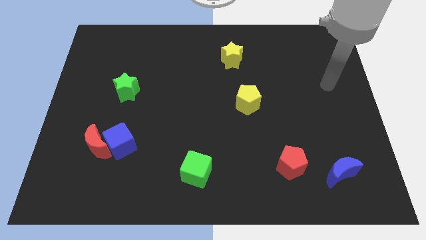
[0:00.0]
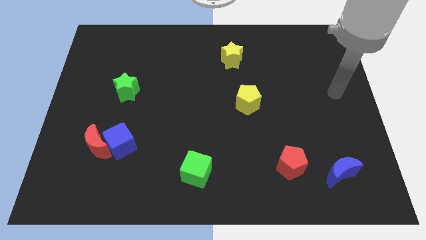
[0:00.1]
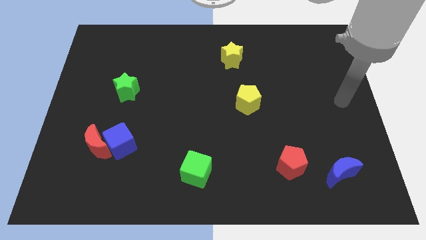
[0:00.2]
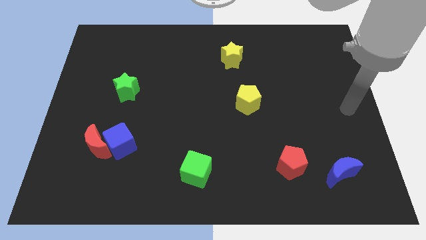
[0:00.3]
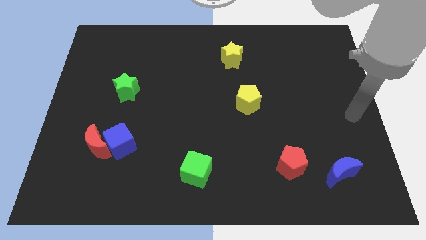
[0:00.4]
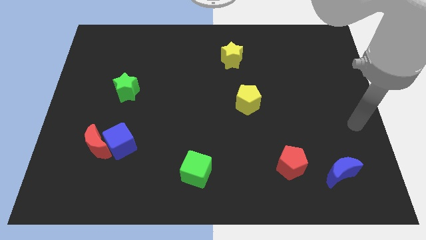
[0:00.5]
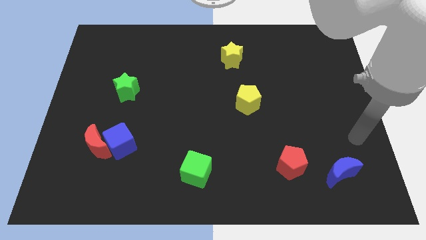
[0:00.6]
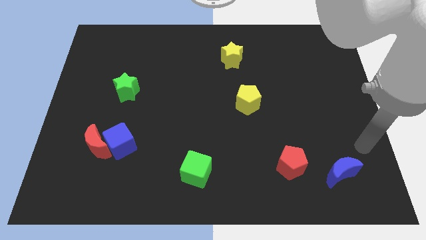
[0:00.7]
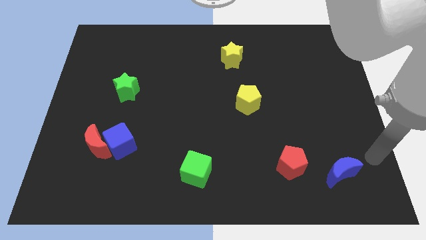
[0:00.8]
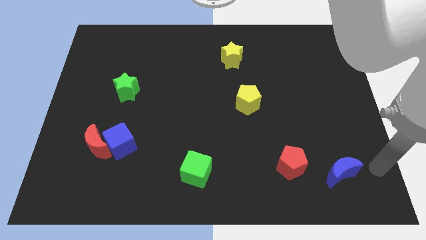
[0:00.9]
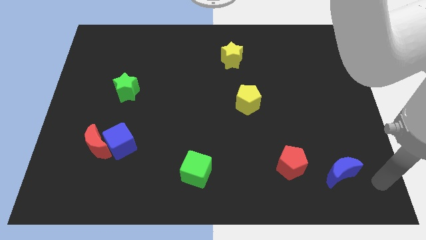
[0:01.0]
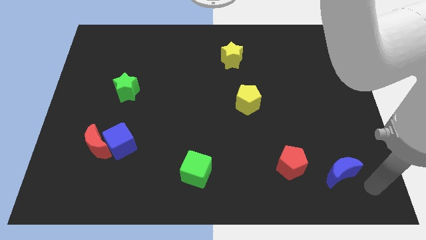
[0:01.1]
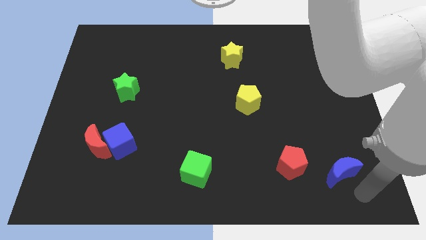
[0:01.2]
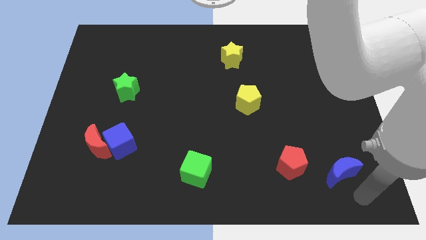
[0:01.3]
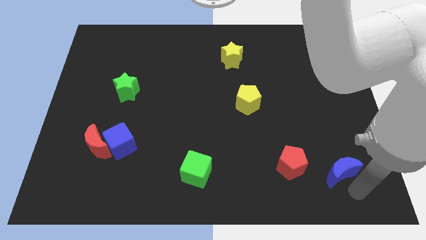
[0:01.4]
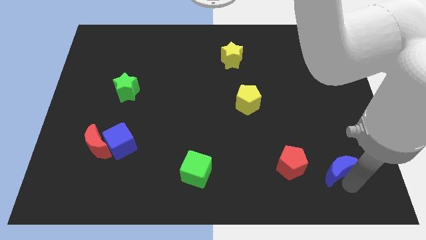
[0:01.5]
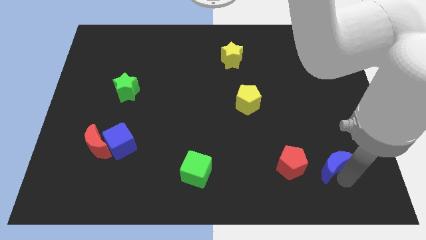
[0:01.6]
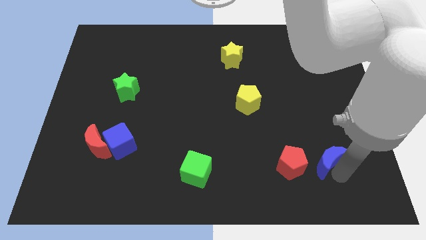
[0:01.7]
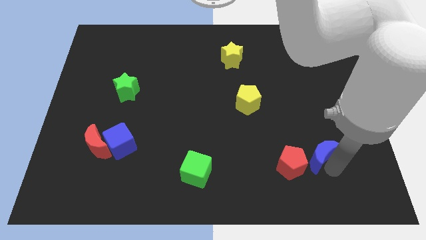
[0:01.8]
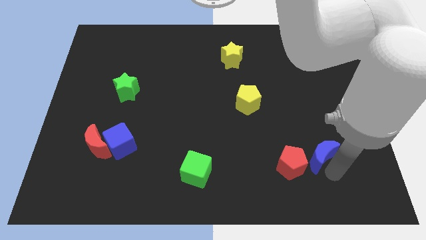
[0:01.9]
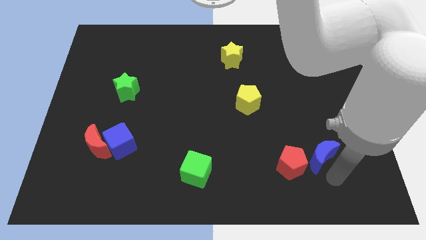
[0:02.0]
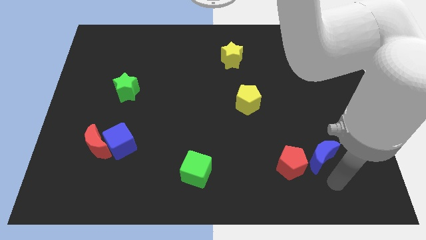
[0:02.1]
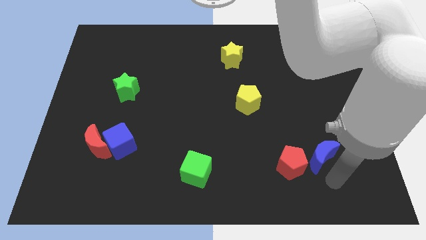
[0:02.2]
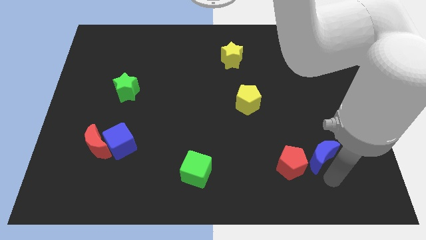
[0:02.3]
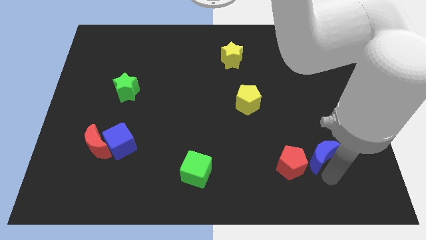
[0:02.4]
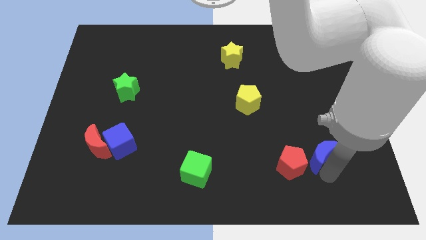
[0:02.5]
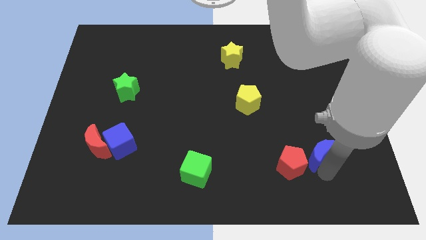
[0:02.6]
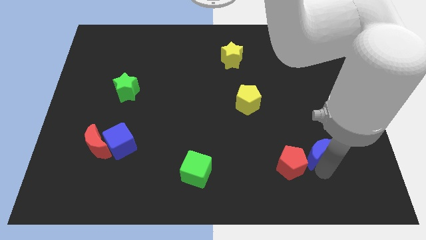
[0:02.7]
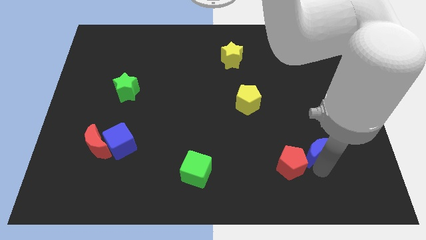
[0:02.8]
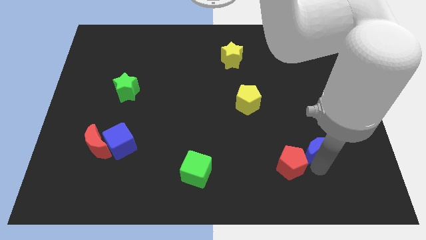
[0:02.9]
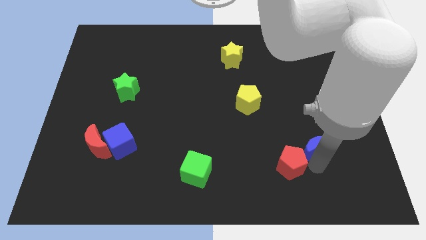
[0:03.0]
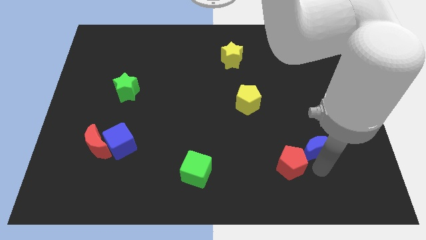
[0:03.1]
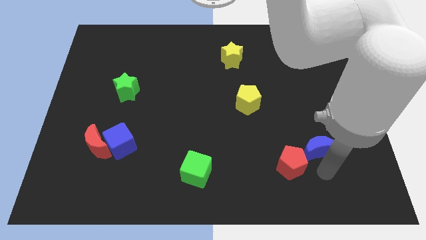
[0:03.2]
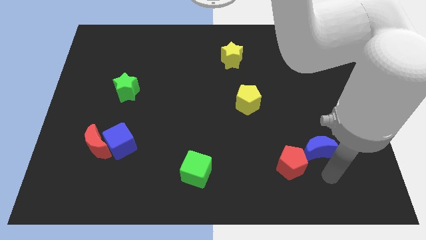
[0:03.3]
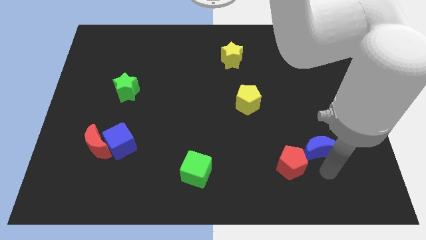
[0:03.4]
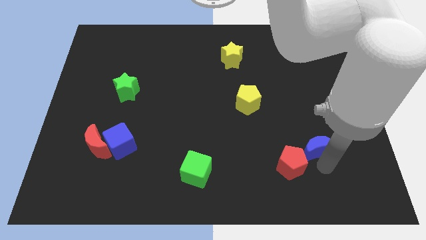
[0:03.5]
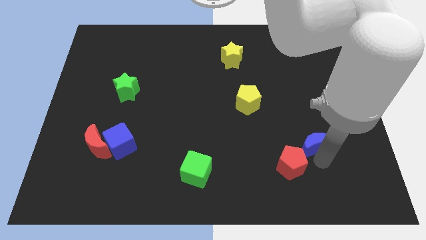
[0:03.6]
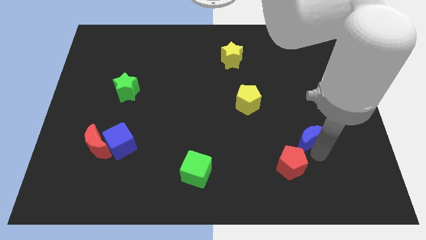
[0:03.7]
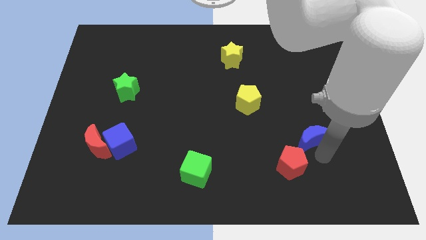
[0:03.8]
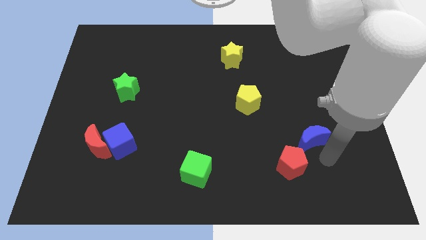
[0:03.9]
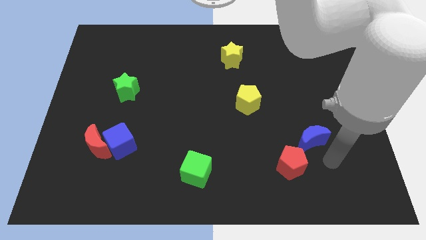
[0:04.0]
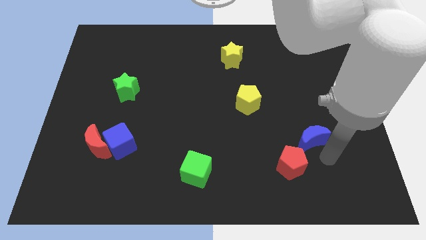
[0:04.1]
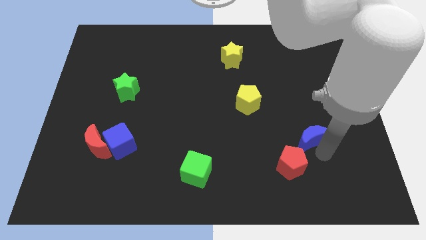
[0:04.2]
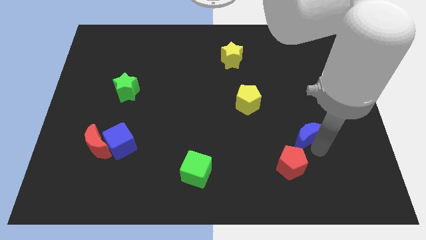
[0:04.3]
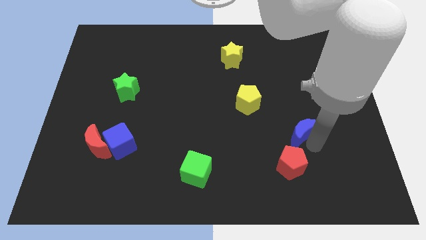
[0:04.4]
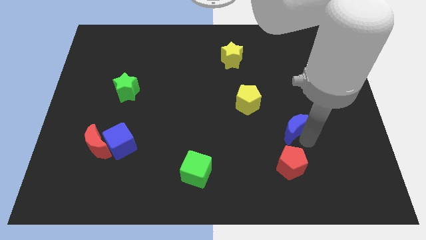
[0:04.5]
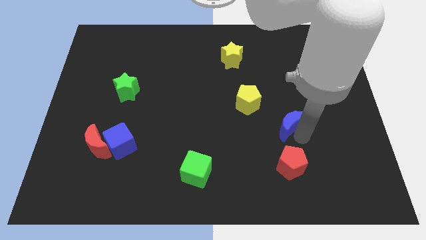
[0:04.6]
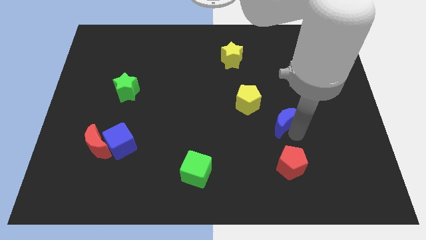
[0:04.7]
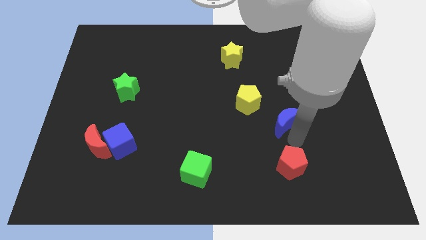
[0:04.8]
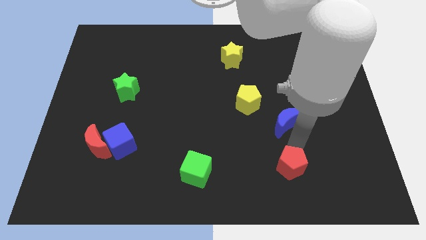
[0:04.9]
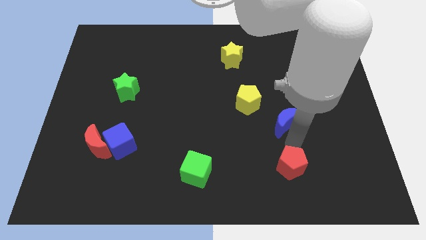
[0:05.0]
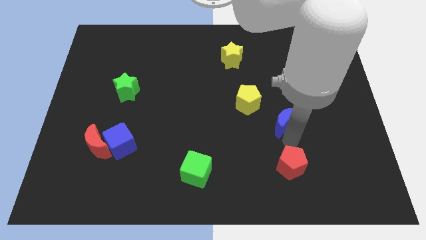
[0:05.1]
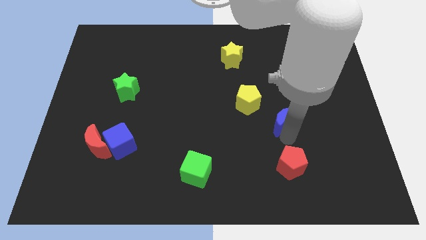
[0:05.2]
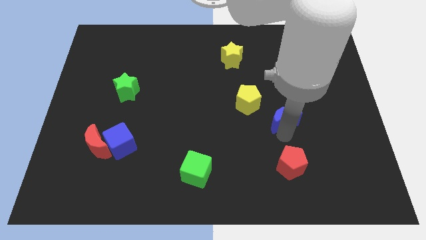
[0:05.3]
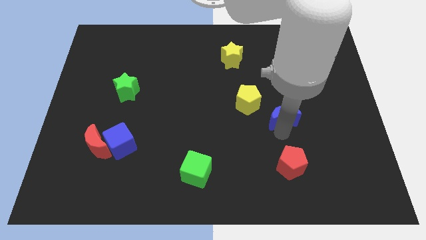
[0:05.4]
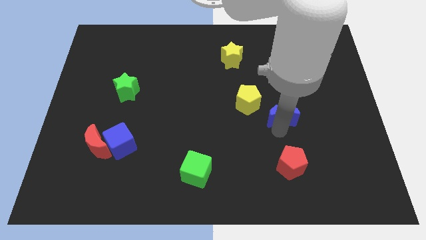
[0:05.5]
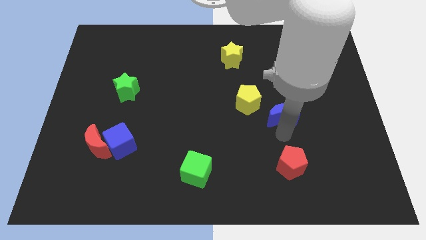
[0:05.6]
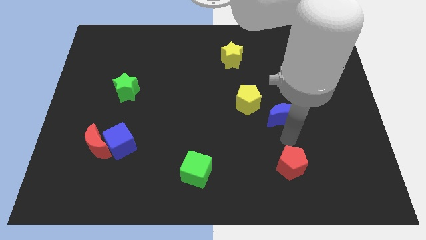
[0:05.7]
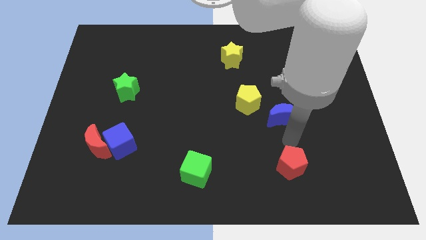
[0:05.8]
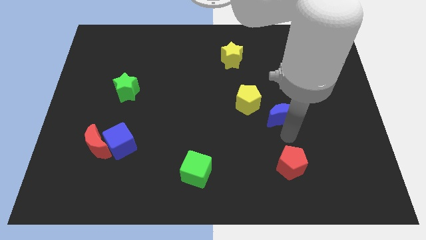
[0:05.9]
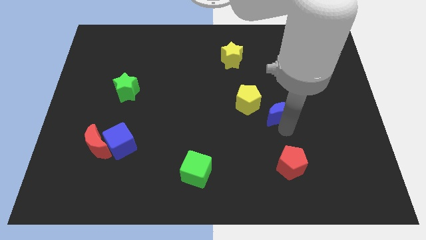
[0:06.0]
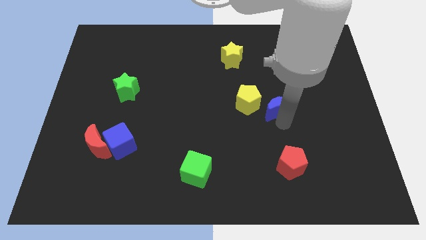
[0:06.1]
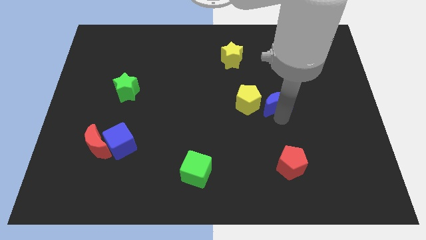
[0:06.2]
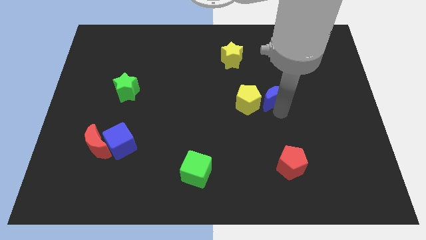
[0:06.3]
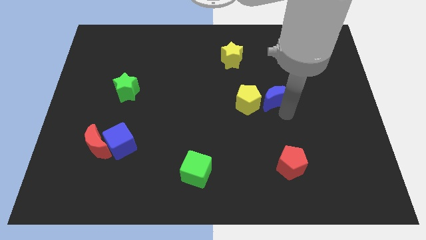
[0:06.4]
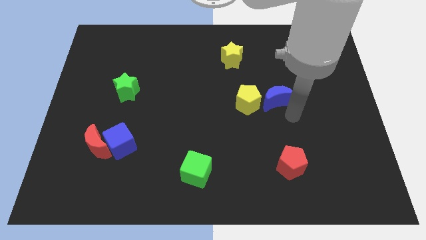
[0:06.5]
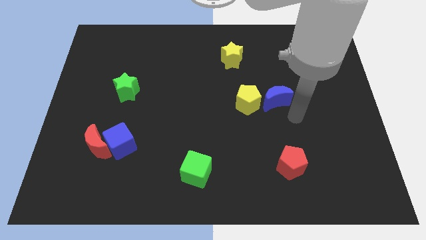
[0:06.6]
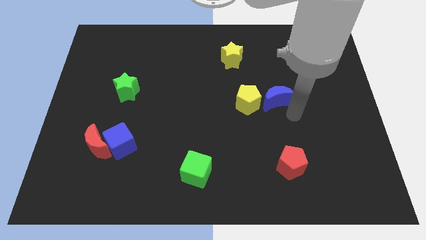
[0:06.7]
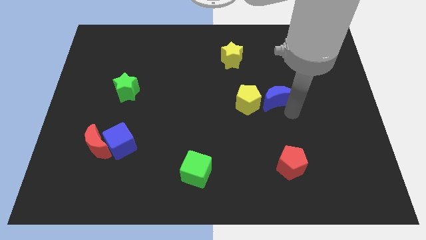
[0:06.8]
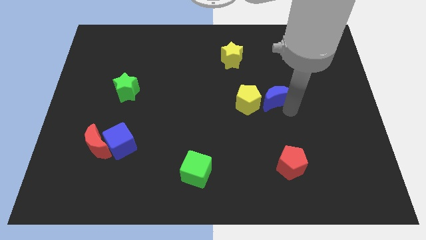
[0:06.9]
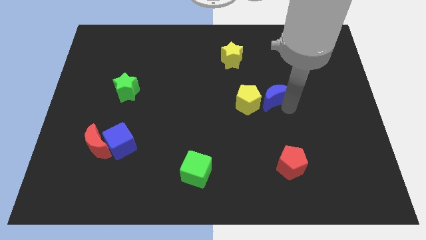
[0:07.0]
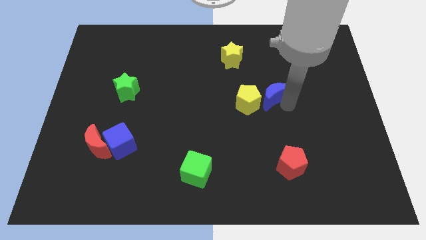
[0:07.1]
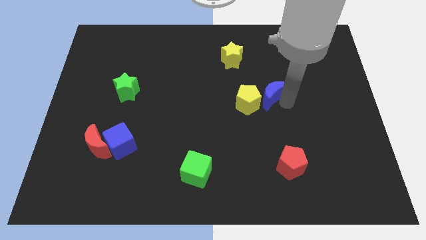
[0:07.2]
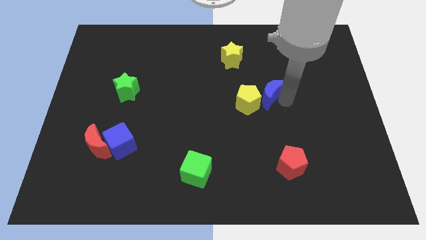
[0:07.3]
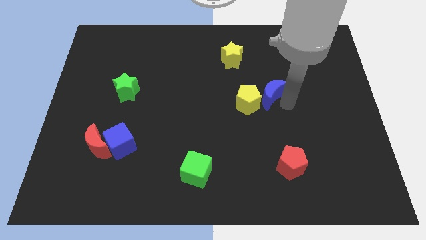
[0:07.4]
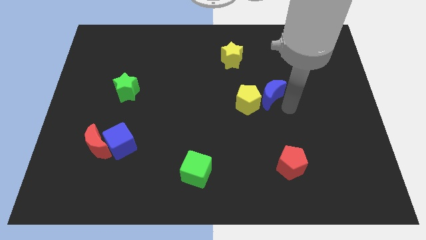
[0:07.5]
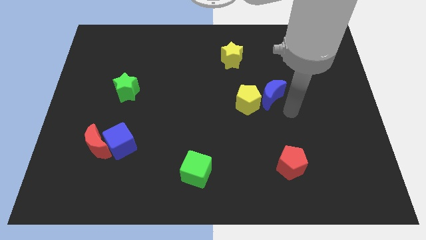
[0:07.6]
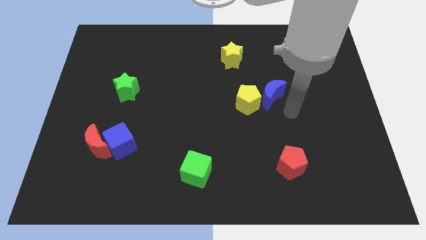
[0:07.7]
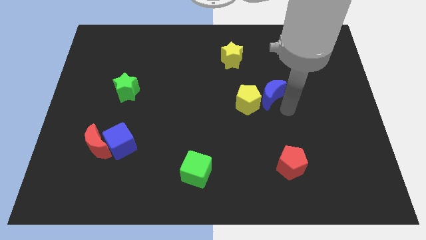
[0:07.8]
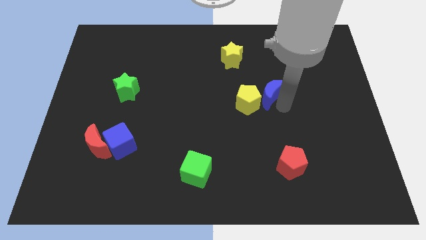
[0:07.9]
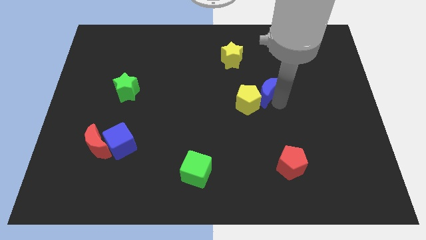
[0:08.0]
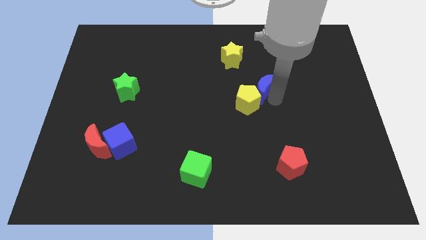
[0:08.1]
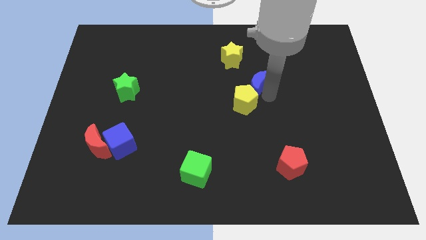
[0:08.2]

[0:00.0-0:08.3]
push the blue moon to the bottom right side of the yellow star
